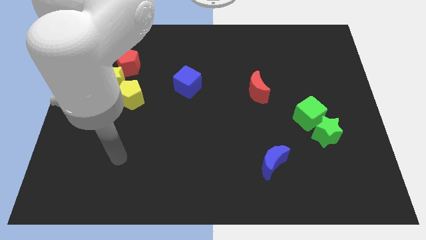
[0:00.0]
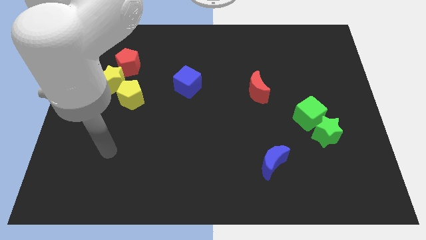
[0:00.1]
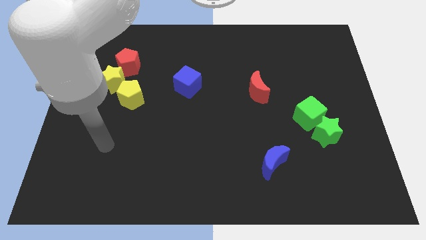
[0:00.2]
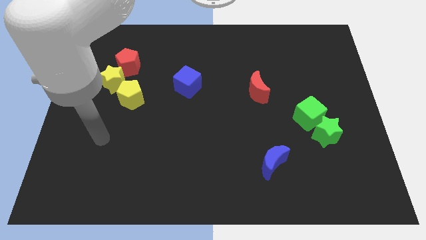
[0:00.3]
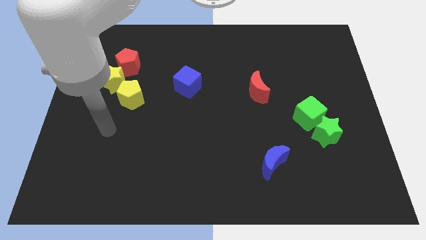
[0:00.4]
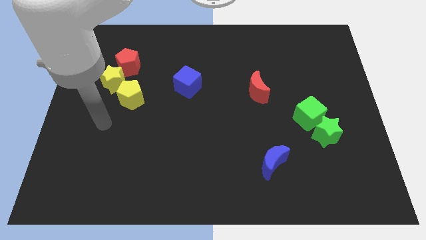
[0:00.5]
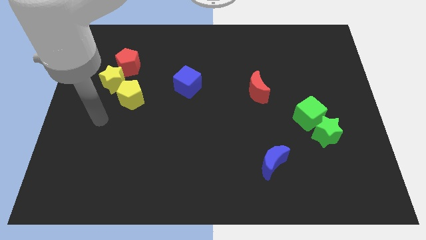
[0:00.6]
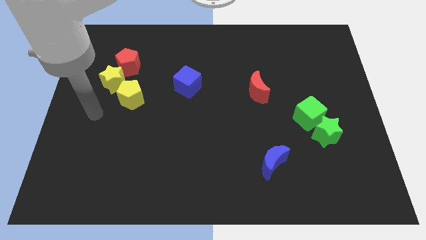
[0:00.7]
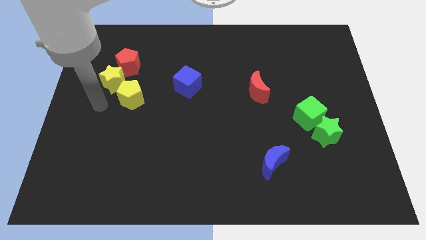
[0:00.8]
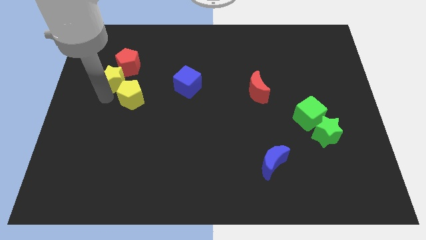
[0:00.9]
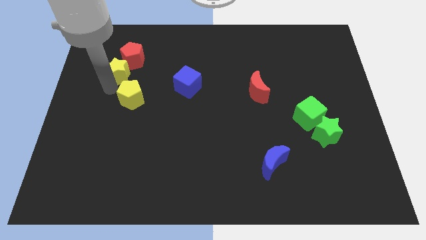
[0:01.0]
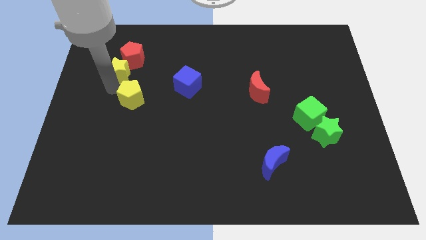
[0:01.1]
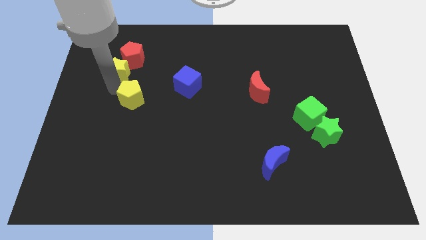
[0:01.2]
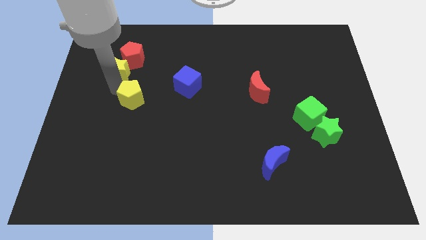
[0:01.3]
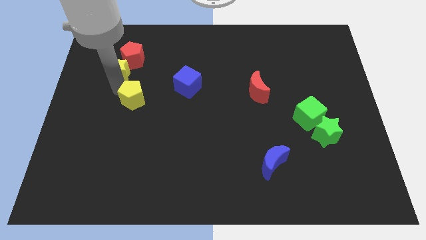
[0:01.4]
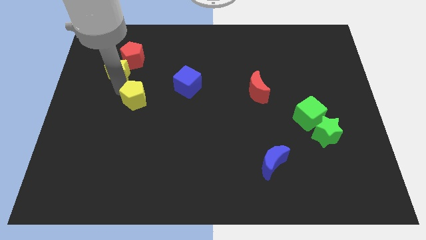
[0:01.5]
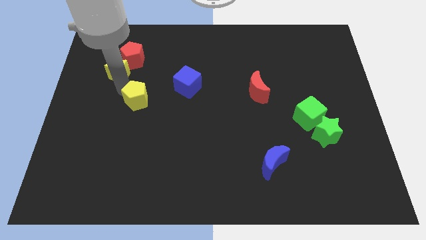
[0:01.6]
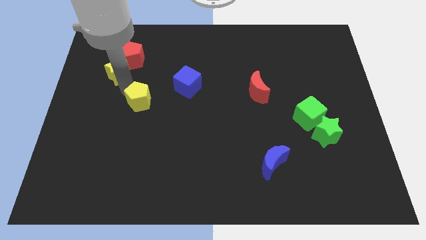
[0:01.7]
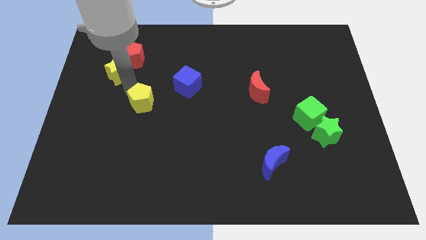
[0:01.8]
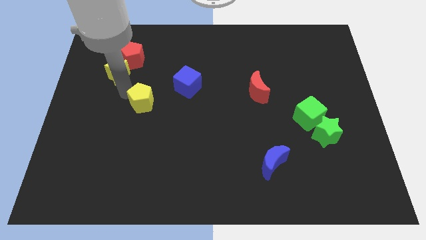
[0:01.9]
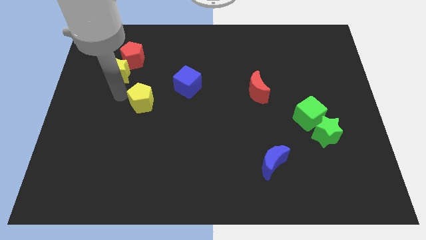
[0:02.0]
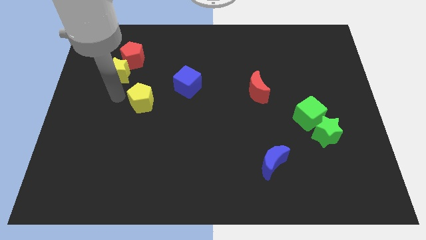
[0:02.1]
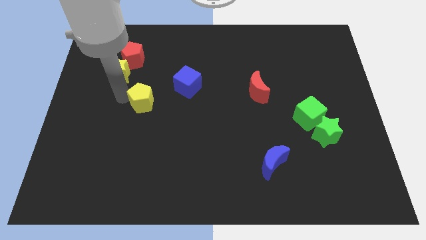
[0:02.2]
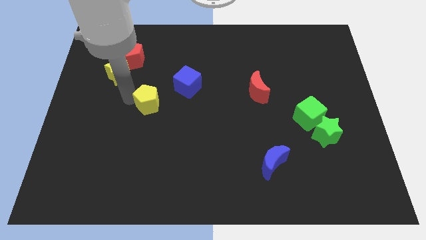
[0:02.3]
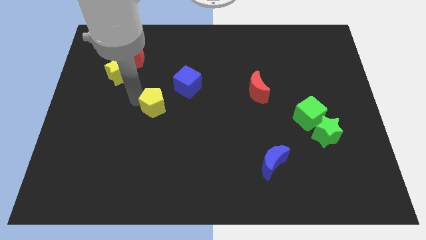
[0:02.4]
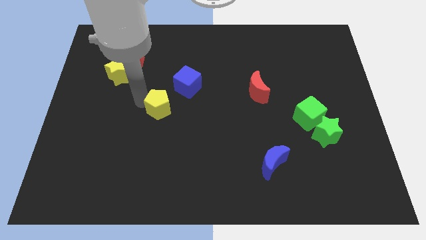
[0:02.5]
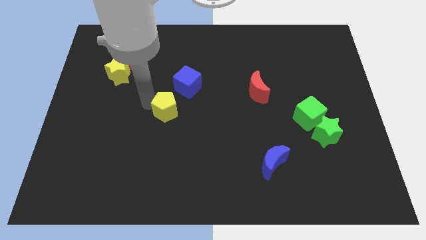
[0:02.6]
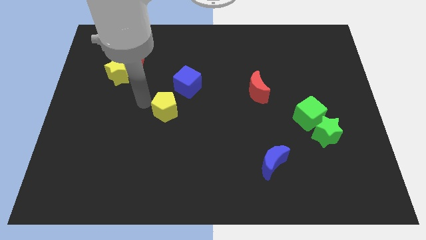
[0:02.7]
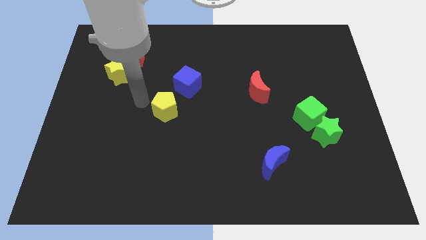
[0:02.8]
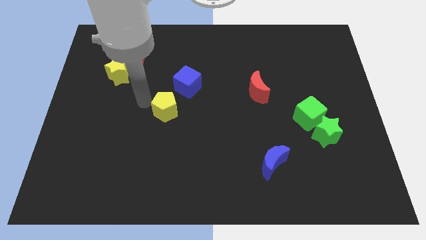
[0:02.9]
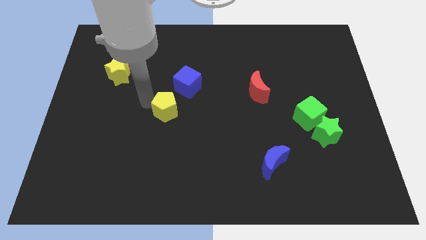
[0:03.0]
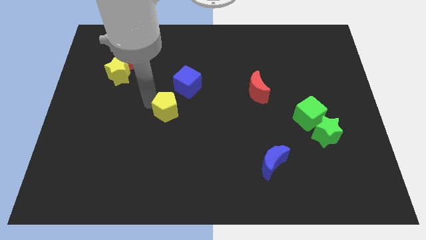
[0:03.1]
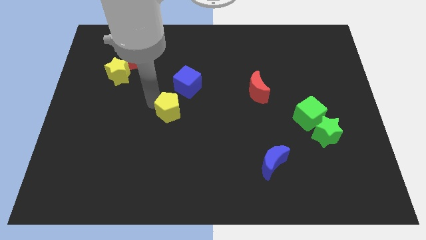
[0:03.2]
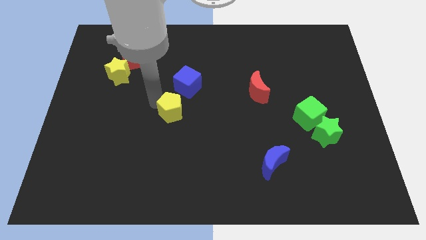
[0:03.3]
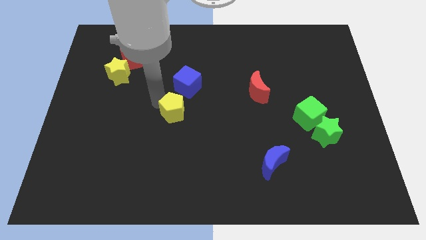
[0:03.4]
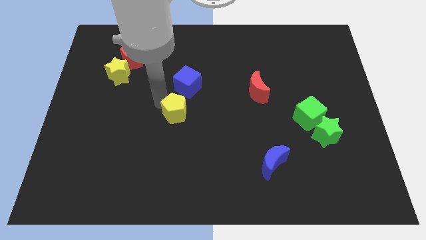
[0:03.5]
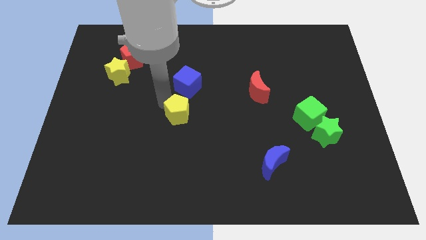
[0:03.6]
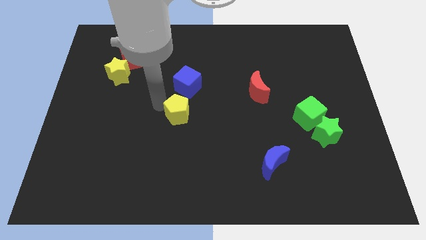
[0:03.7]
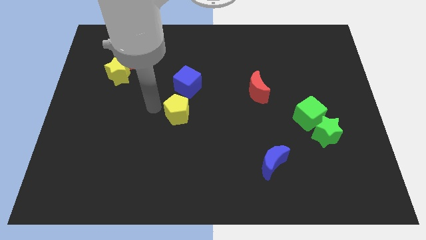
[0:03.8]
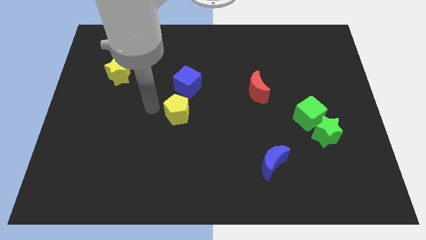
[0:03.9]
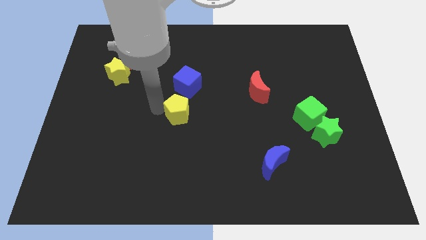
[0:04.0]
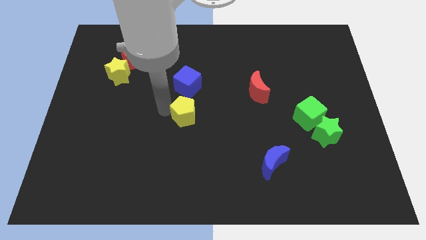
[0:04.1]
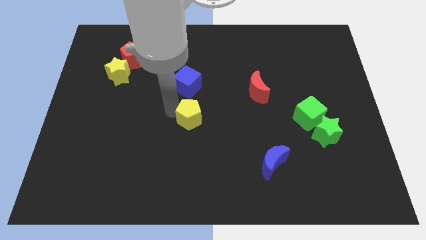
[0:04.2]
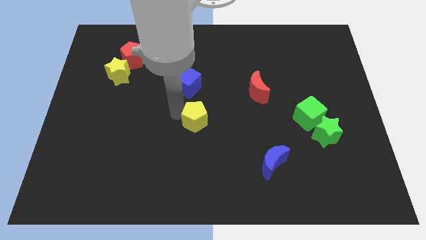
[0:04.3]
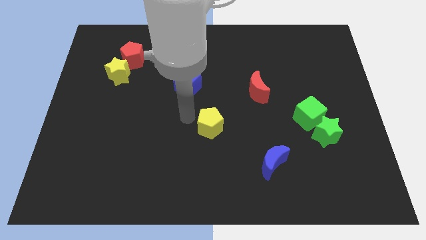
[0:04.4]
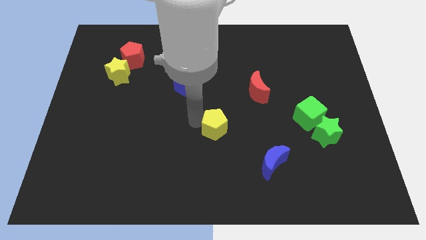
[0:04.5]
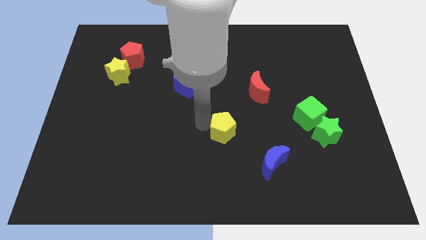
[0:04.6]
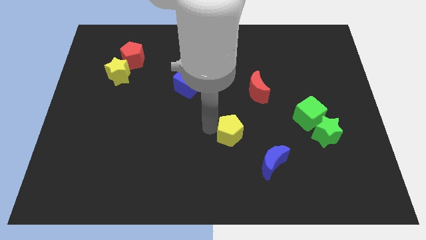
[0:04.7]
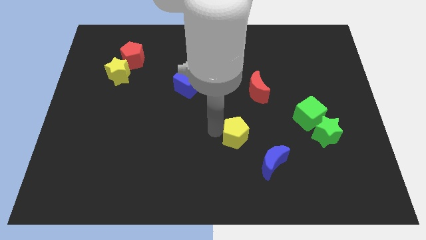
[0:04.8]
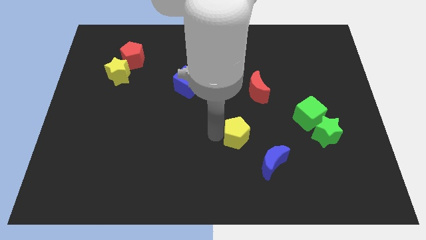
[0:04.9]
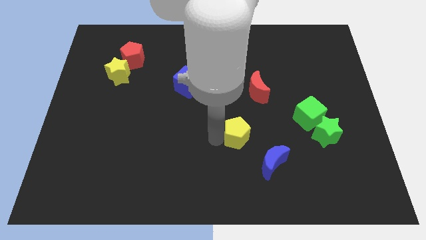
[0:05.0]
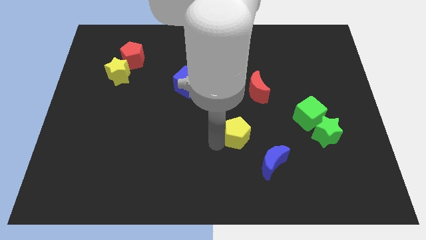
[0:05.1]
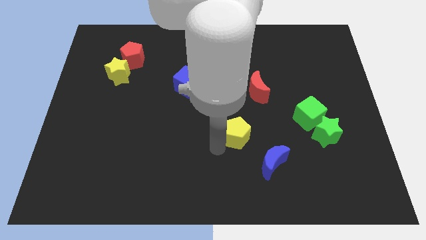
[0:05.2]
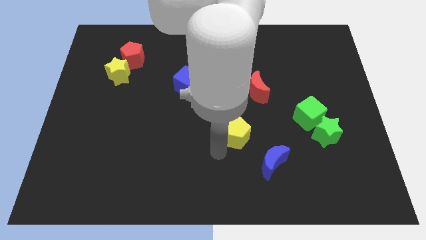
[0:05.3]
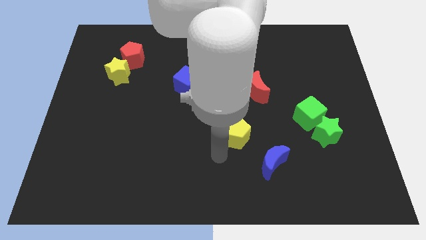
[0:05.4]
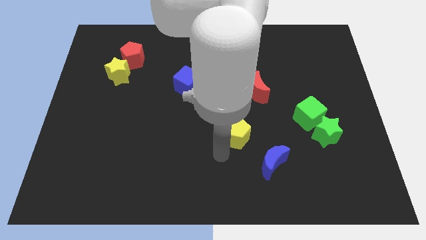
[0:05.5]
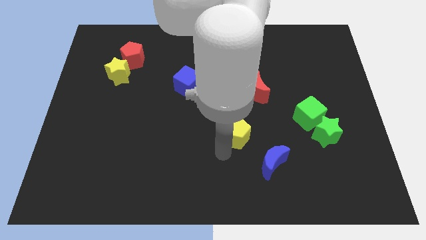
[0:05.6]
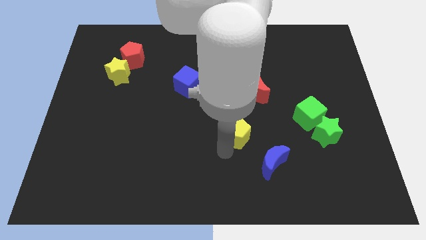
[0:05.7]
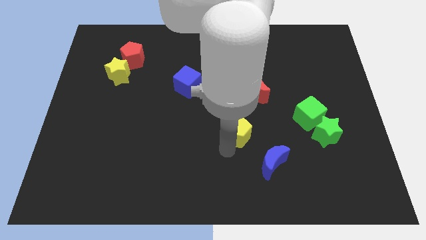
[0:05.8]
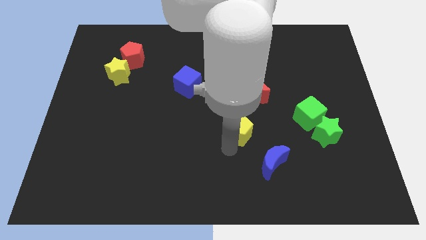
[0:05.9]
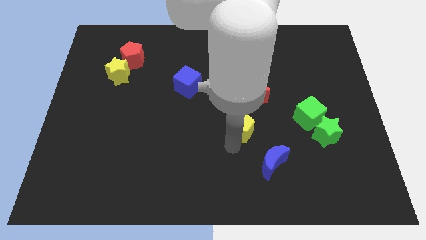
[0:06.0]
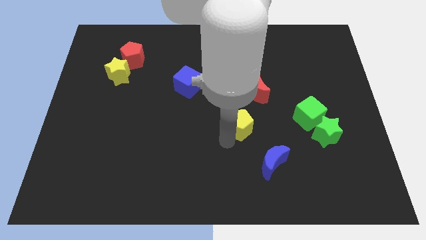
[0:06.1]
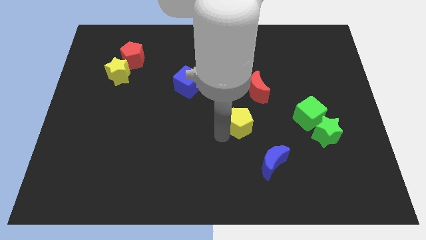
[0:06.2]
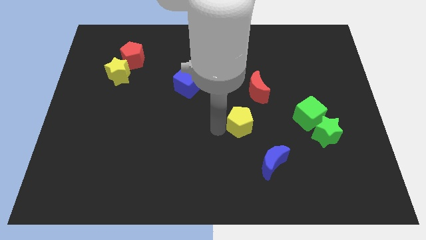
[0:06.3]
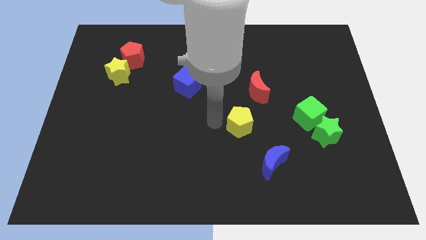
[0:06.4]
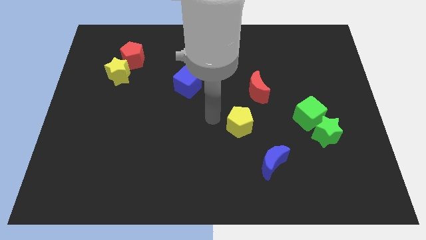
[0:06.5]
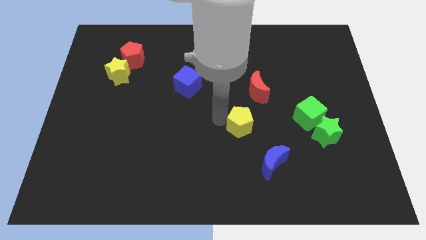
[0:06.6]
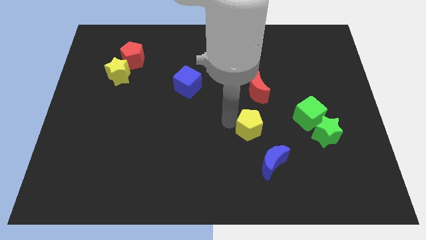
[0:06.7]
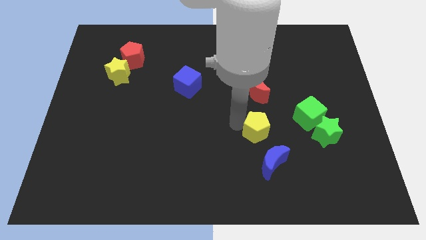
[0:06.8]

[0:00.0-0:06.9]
push the yellow pentagon left of the green star
